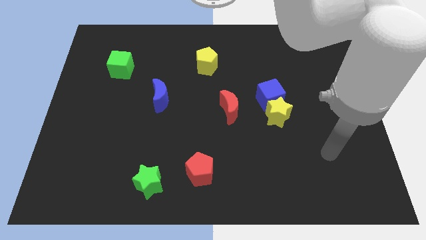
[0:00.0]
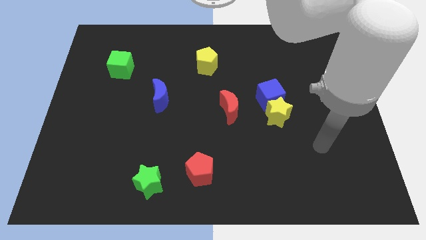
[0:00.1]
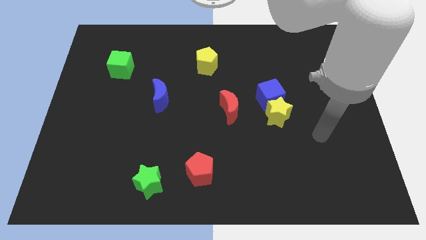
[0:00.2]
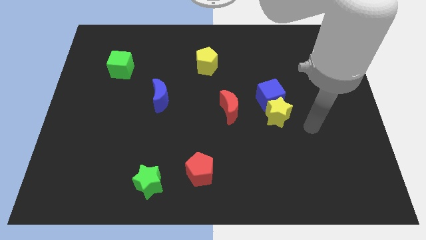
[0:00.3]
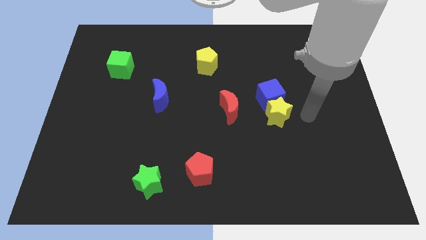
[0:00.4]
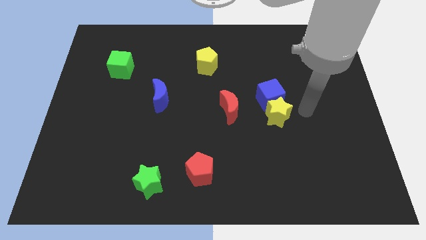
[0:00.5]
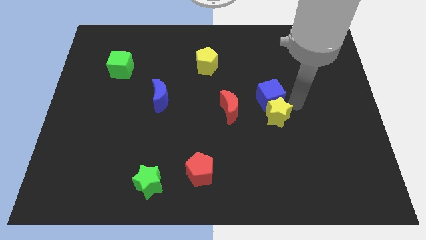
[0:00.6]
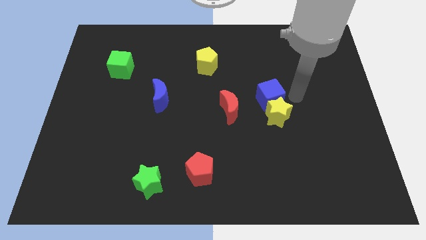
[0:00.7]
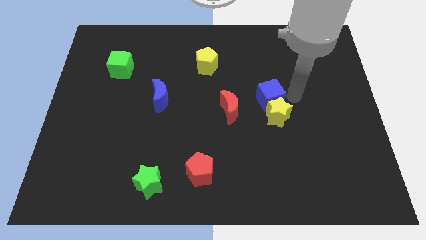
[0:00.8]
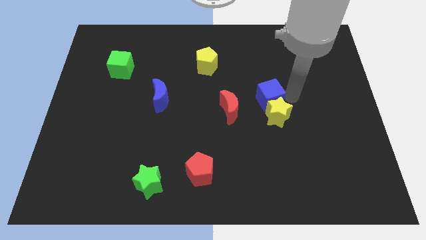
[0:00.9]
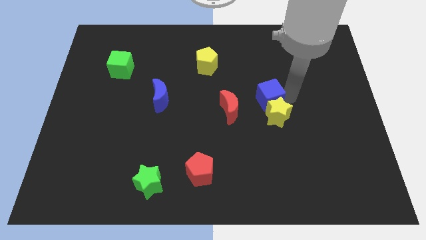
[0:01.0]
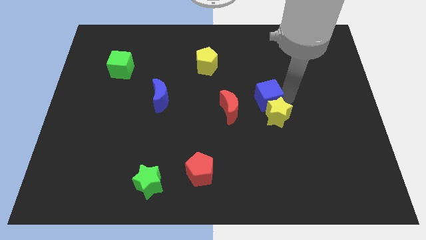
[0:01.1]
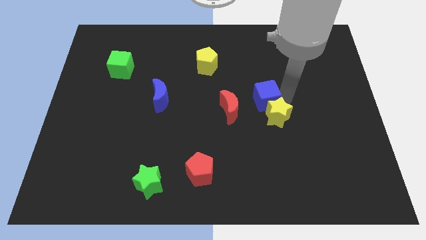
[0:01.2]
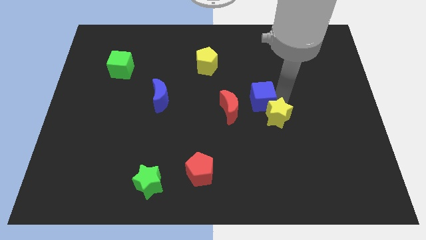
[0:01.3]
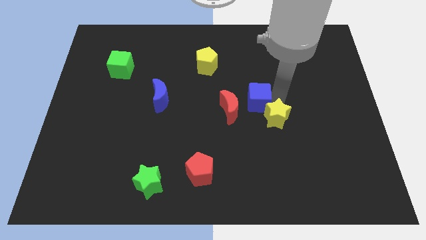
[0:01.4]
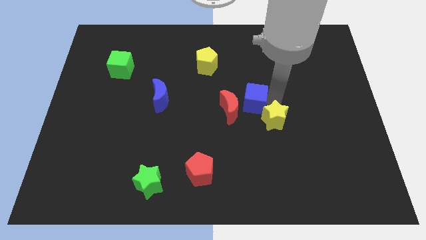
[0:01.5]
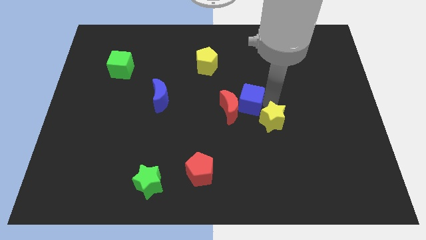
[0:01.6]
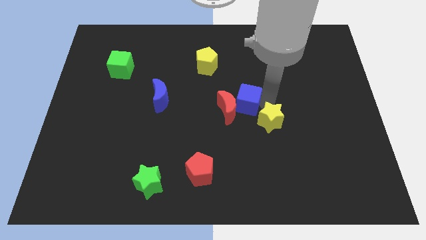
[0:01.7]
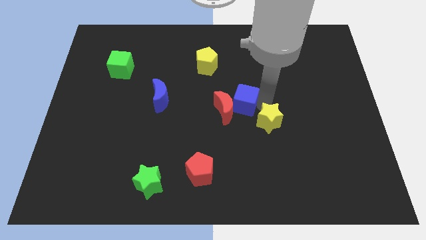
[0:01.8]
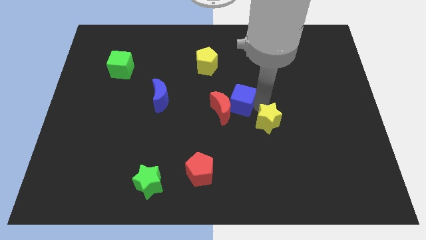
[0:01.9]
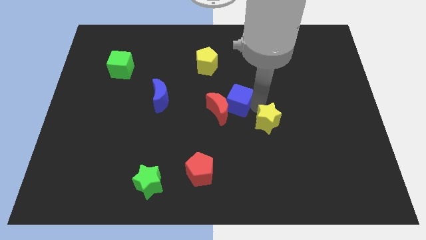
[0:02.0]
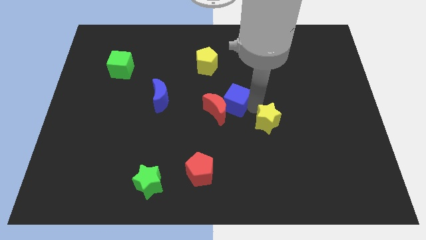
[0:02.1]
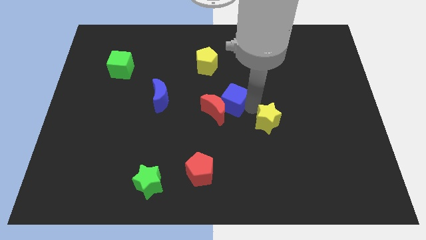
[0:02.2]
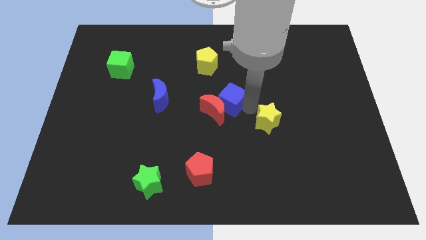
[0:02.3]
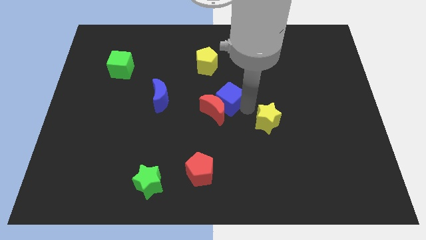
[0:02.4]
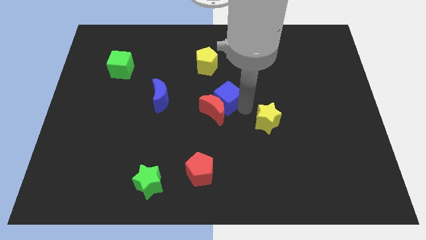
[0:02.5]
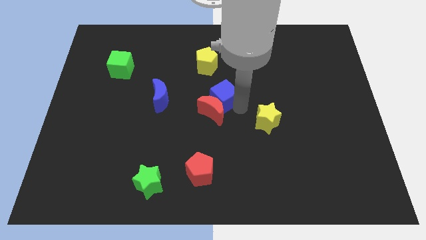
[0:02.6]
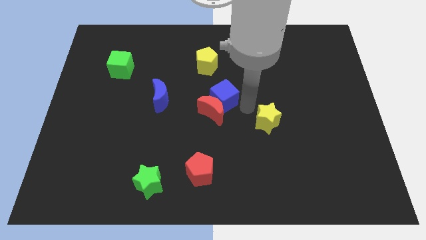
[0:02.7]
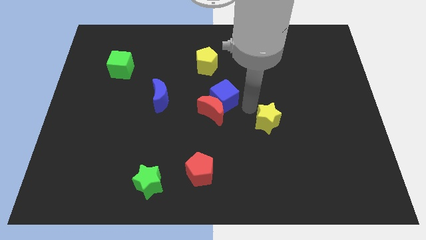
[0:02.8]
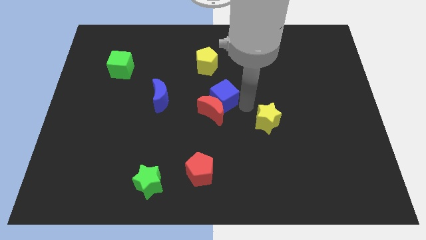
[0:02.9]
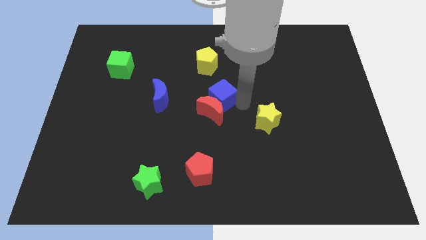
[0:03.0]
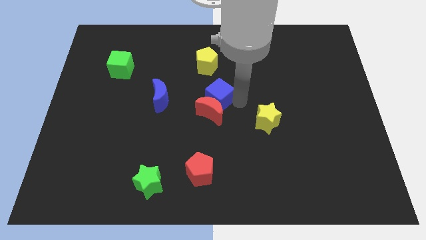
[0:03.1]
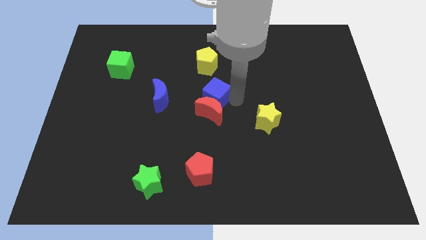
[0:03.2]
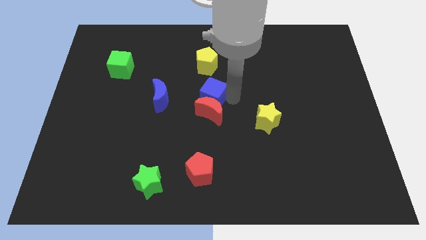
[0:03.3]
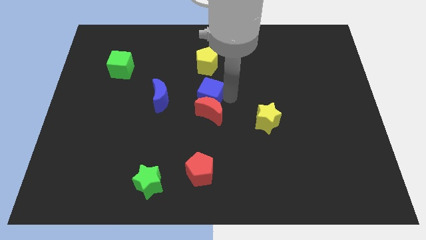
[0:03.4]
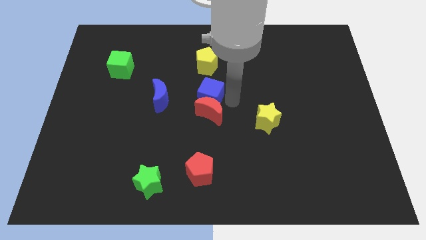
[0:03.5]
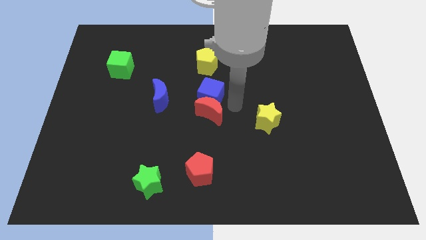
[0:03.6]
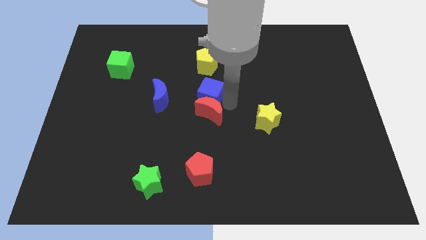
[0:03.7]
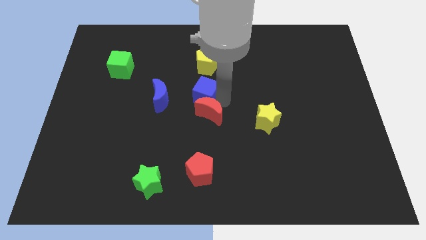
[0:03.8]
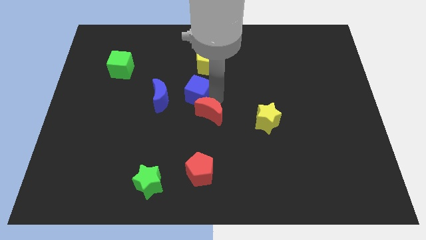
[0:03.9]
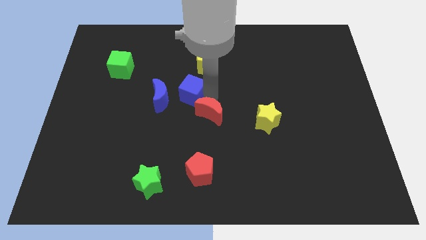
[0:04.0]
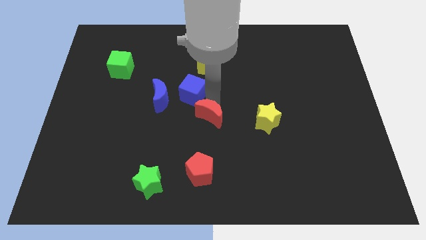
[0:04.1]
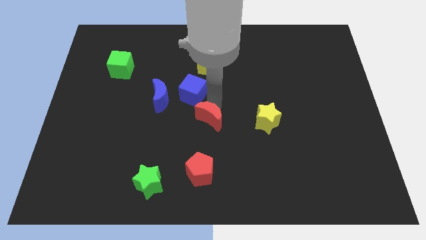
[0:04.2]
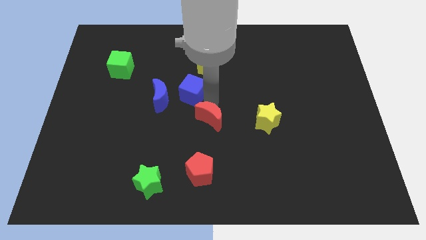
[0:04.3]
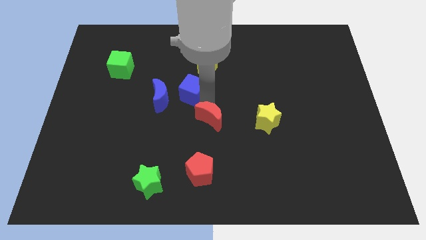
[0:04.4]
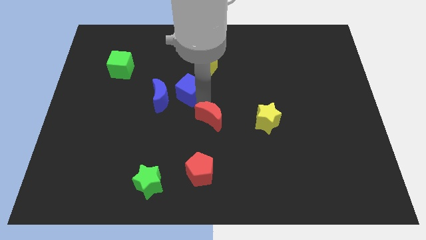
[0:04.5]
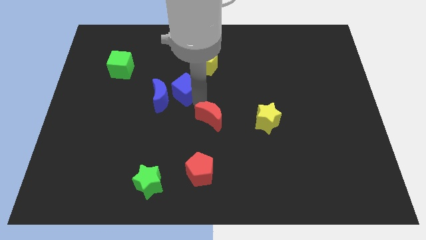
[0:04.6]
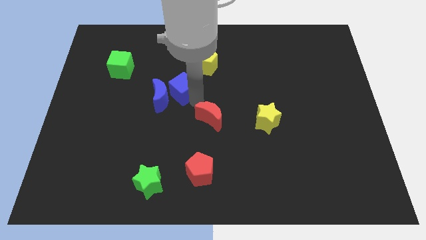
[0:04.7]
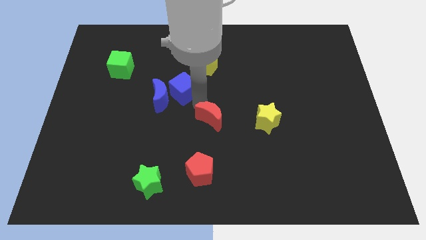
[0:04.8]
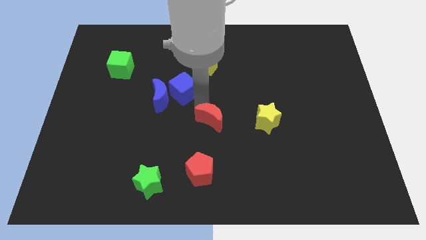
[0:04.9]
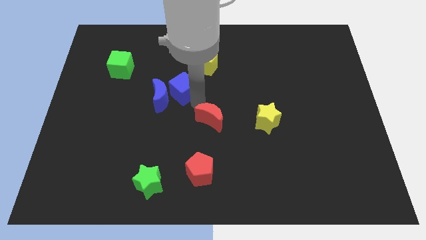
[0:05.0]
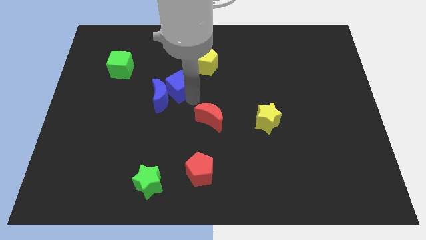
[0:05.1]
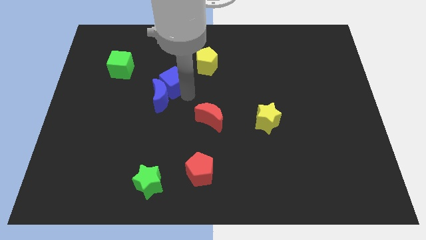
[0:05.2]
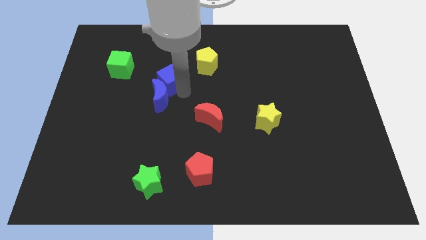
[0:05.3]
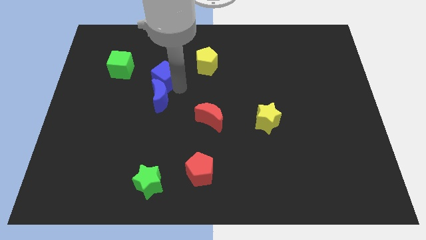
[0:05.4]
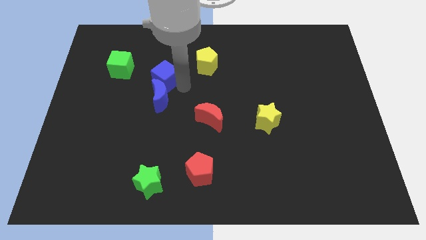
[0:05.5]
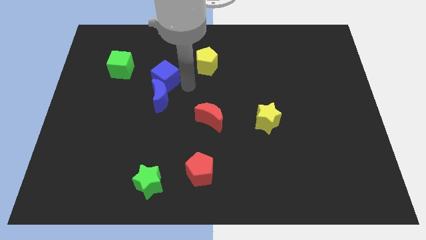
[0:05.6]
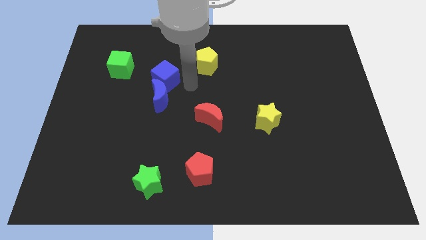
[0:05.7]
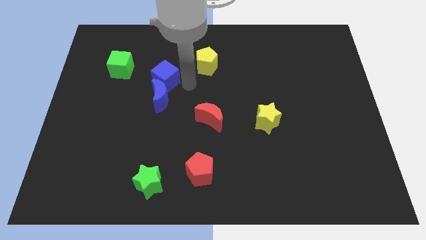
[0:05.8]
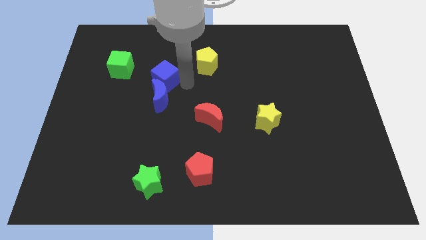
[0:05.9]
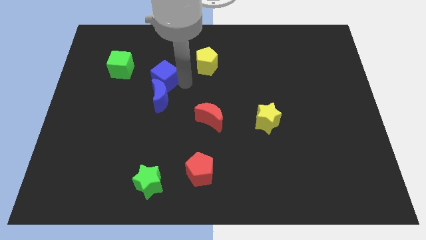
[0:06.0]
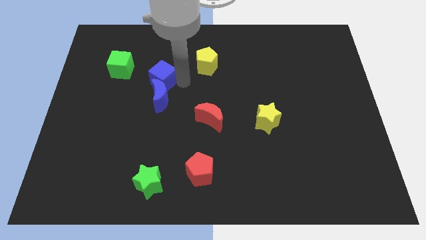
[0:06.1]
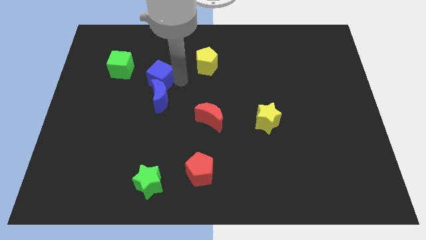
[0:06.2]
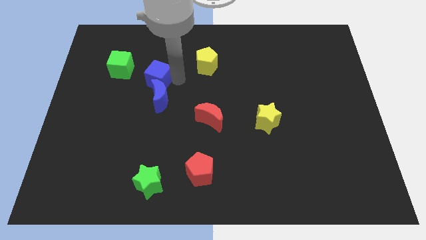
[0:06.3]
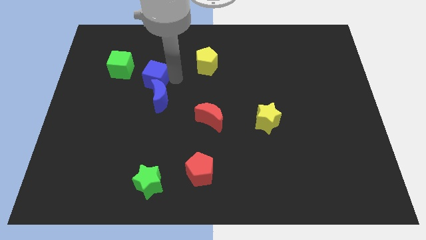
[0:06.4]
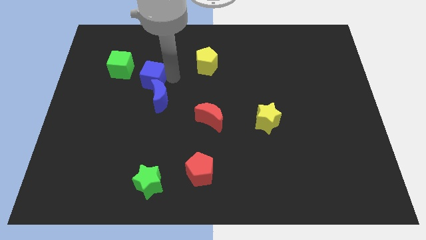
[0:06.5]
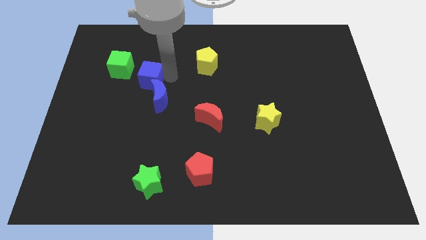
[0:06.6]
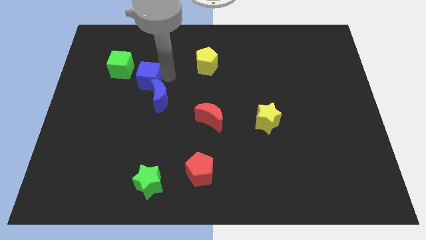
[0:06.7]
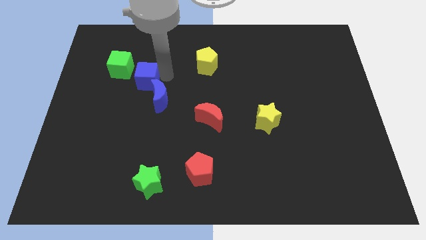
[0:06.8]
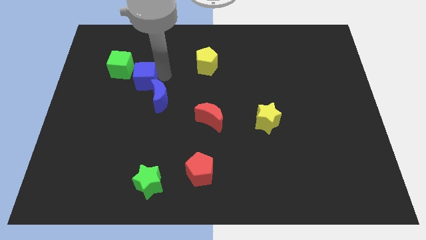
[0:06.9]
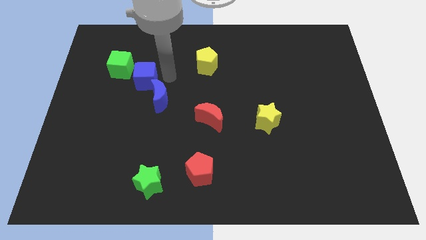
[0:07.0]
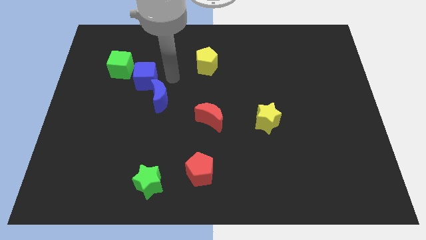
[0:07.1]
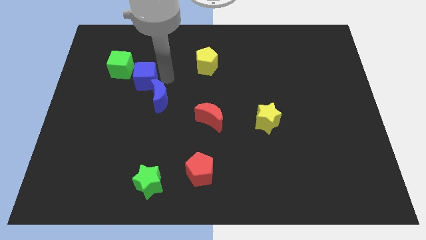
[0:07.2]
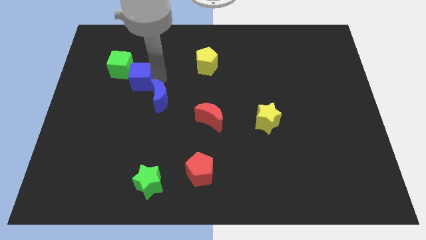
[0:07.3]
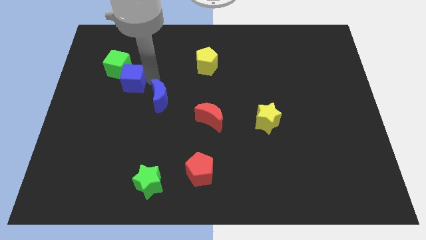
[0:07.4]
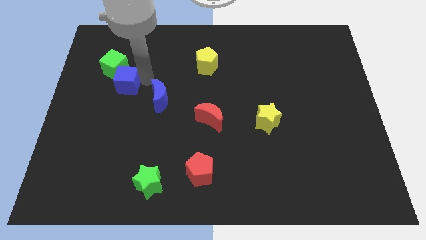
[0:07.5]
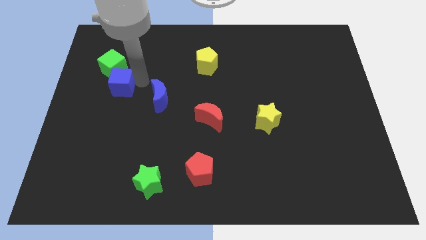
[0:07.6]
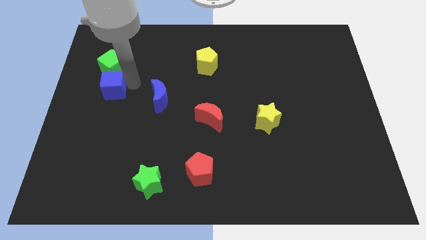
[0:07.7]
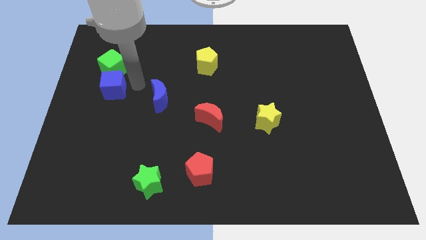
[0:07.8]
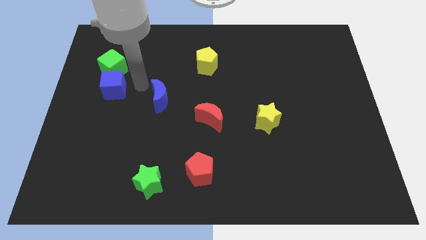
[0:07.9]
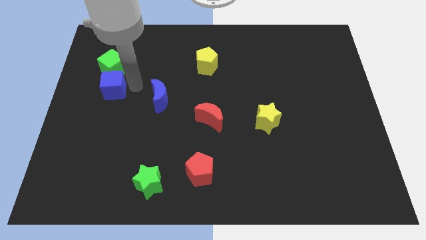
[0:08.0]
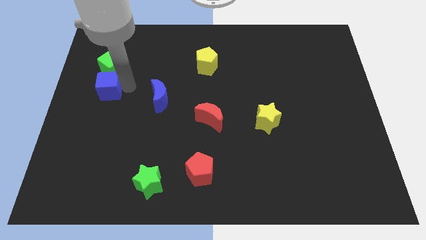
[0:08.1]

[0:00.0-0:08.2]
push the blue cube to the left side of the board
